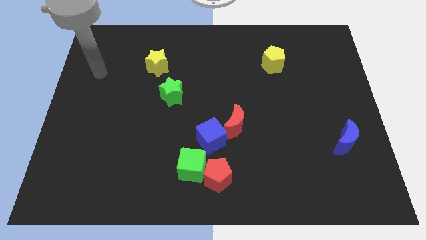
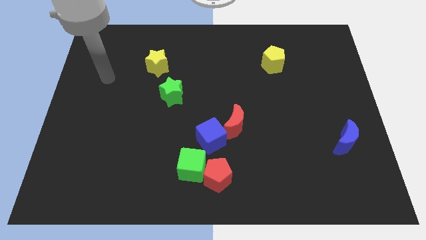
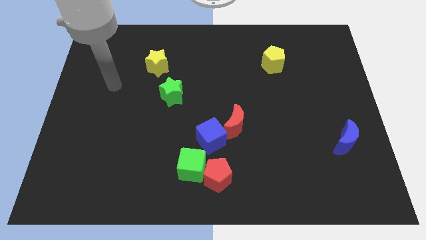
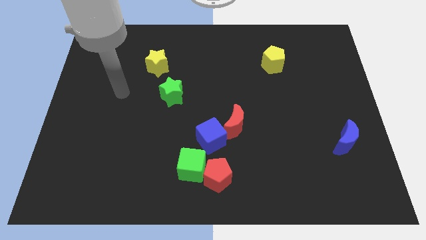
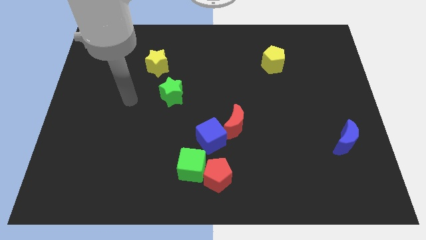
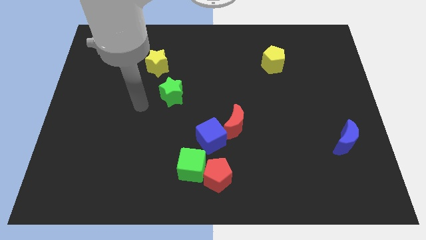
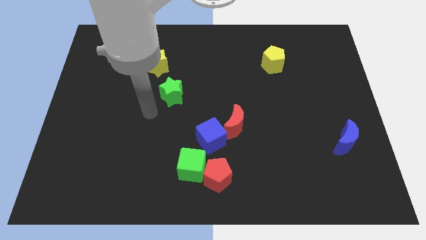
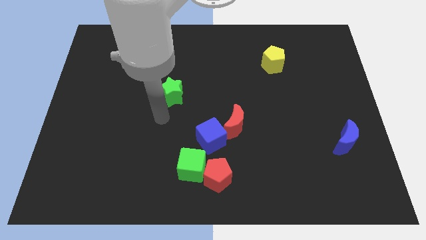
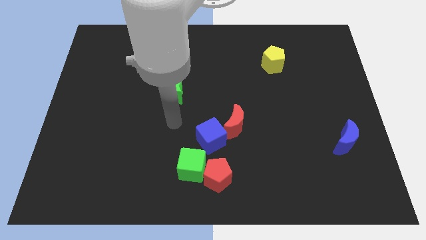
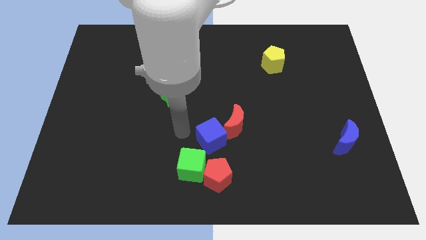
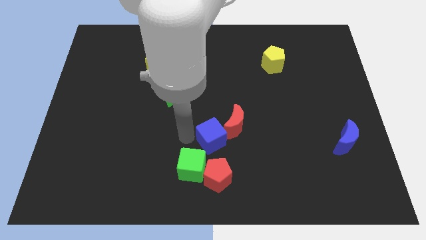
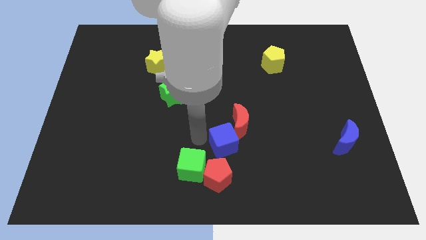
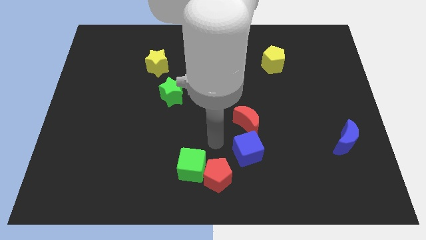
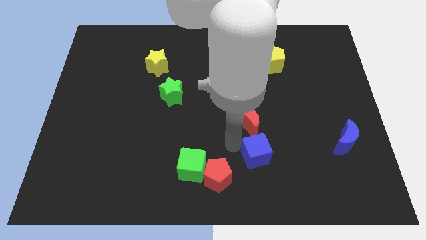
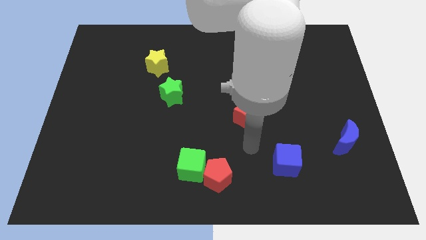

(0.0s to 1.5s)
pull the red moon apart from the blue cube

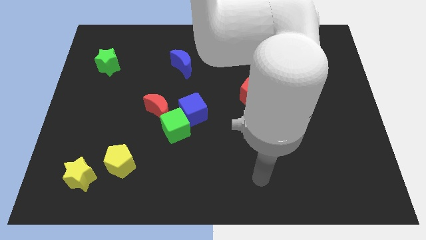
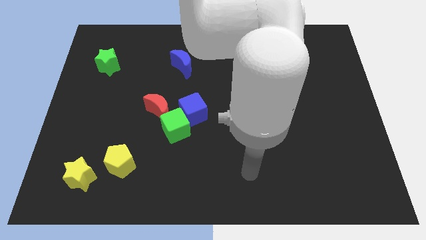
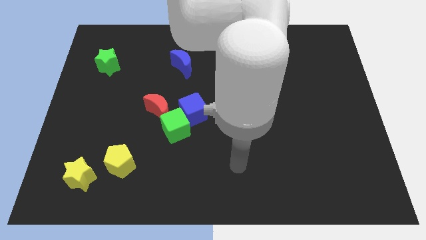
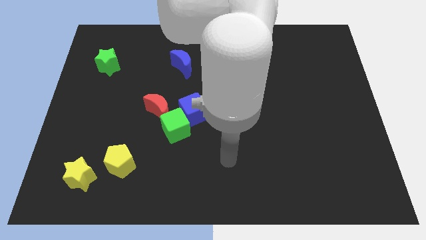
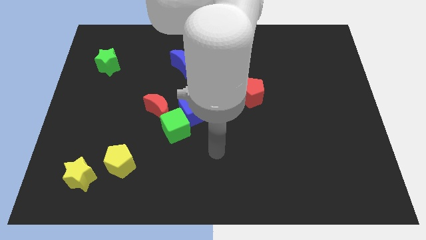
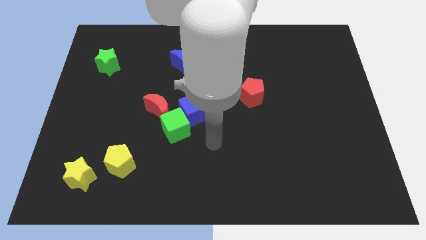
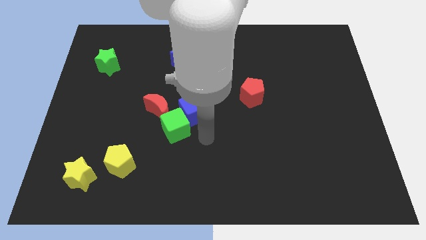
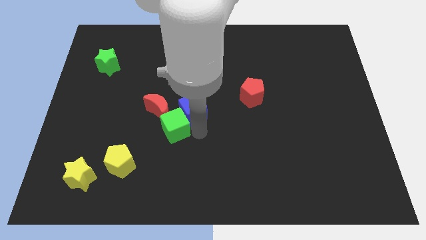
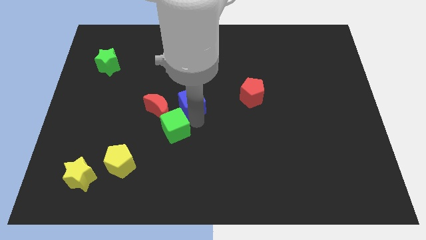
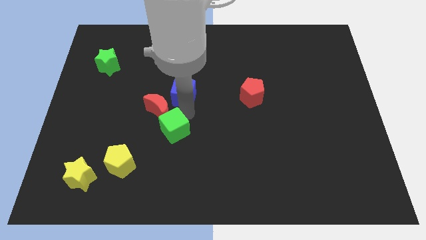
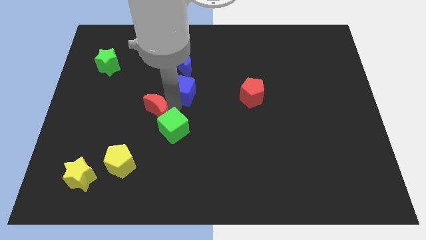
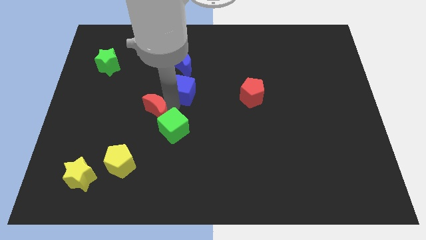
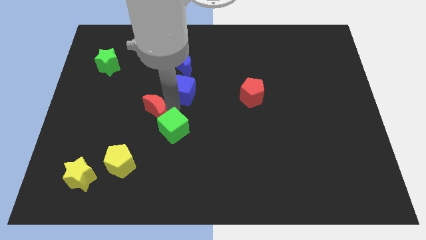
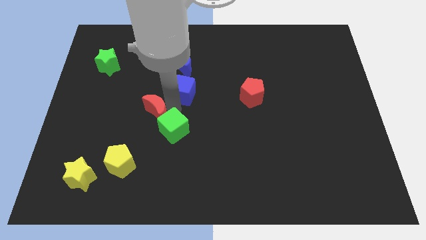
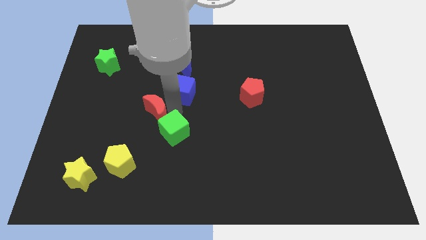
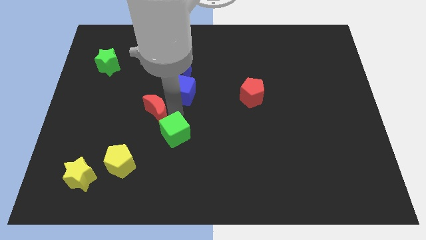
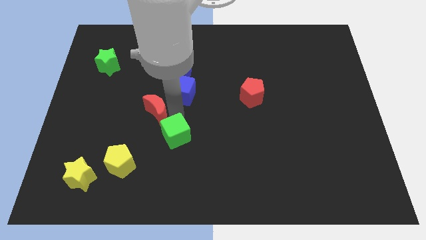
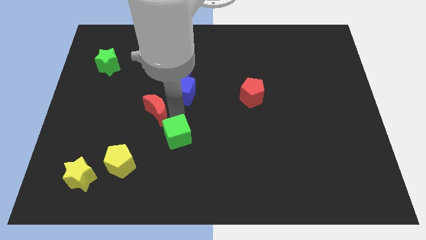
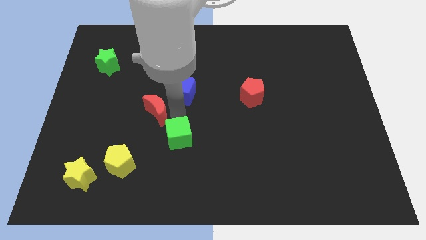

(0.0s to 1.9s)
separate the green cube from the blue cube and red moon

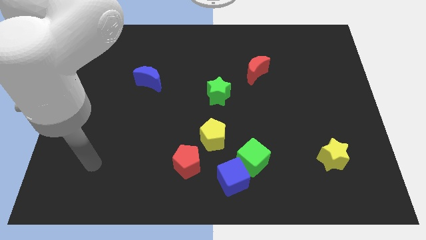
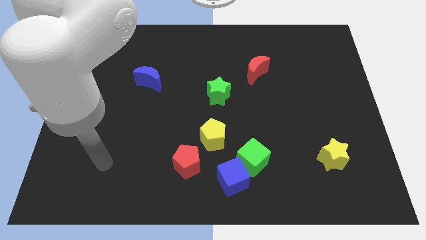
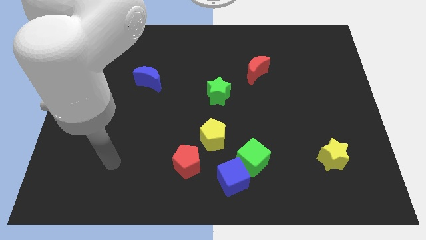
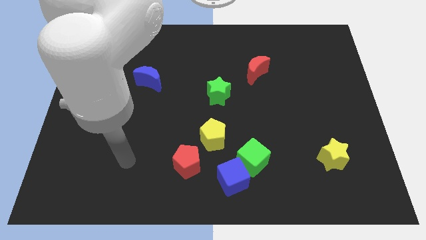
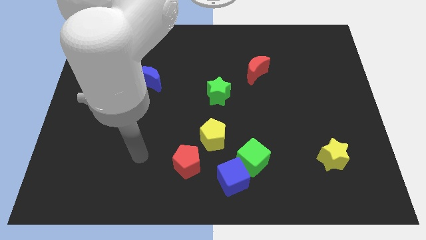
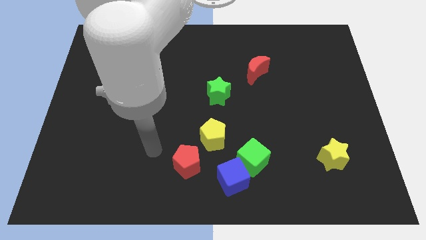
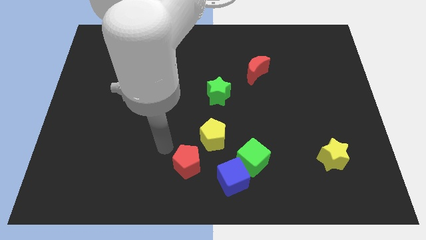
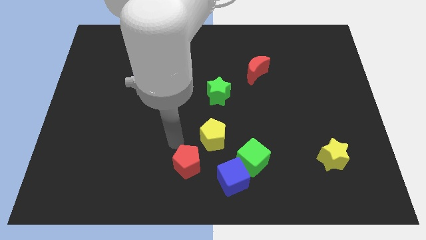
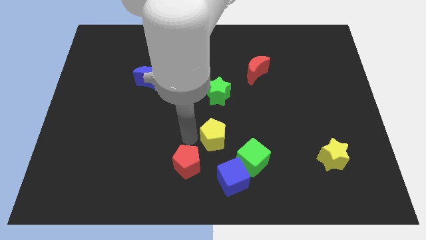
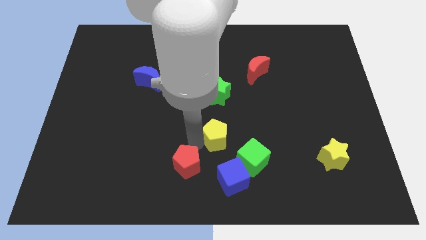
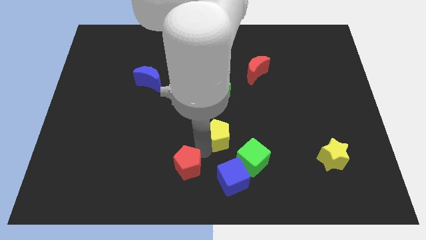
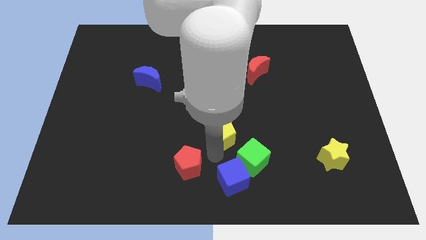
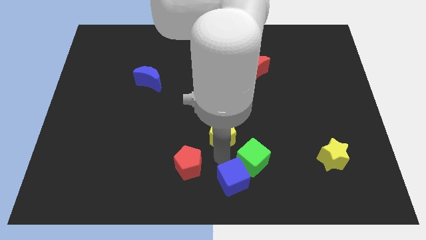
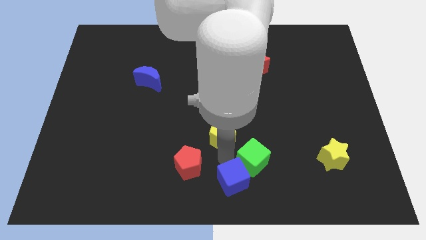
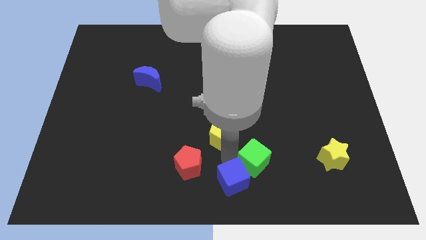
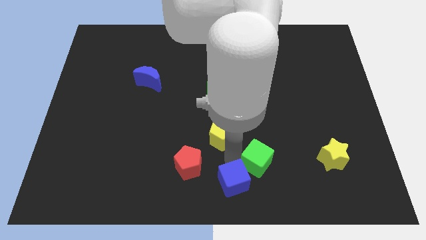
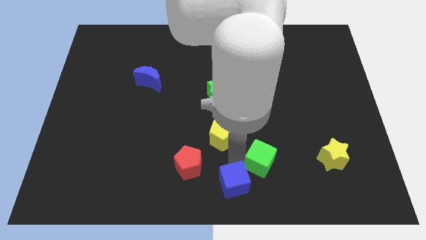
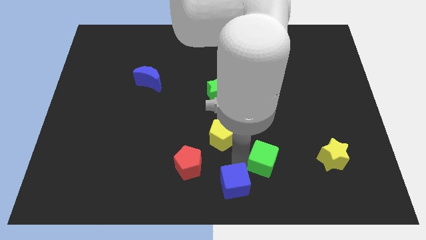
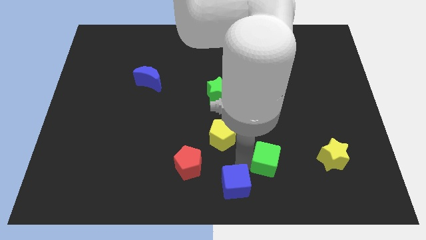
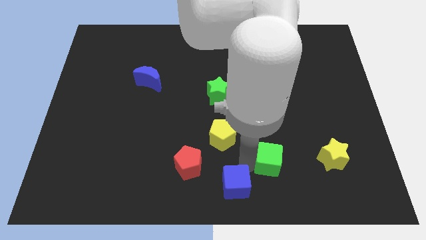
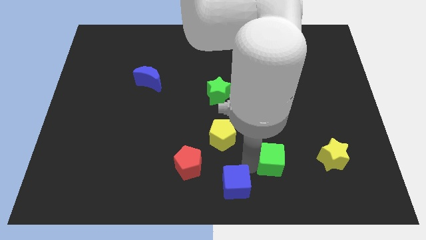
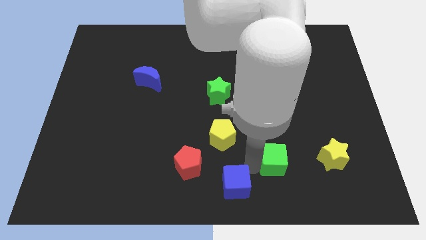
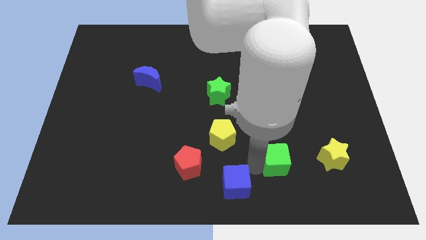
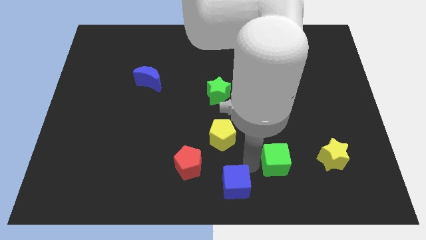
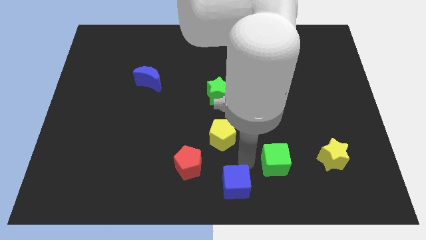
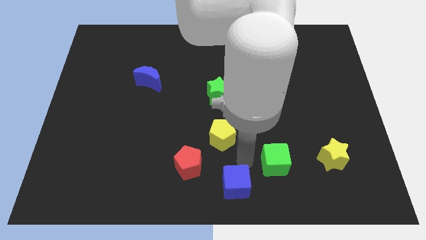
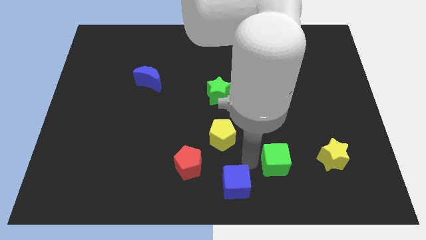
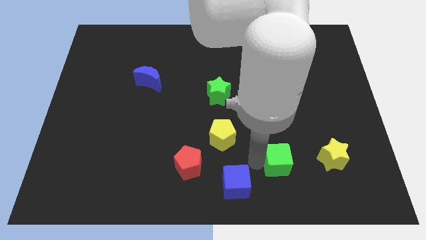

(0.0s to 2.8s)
move the green cube away from the blue cube and yellow pentagon

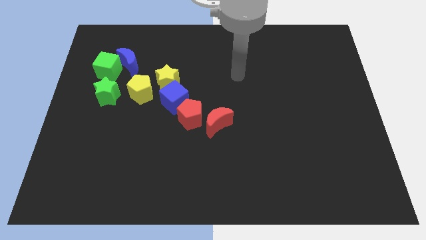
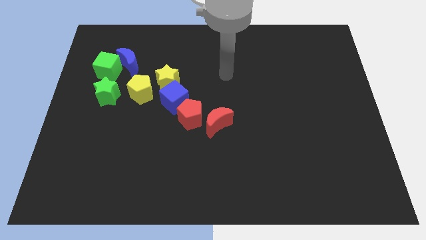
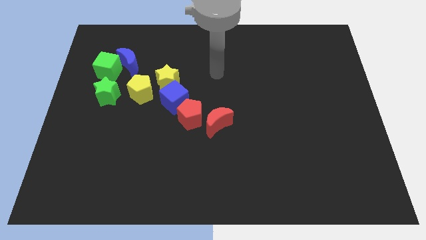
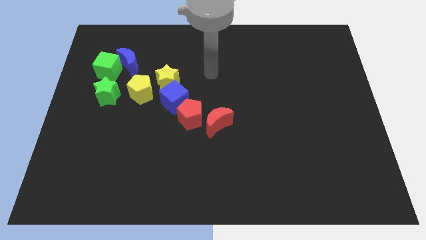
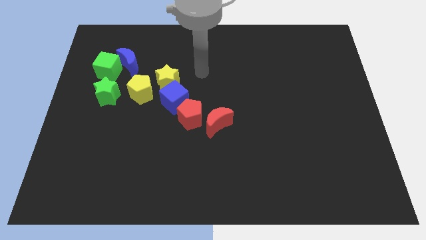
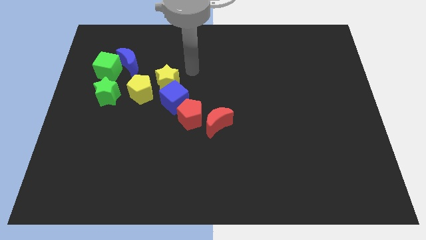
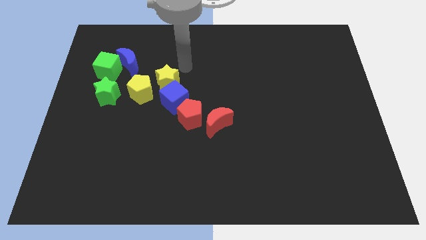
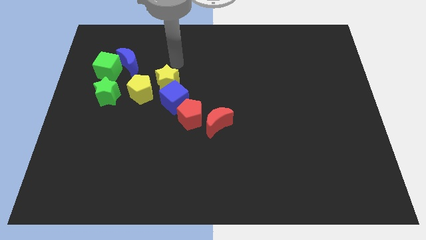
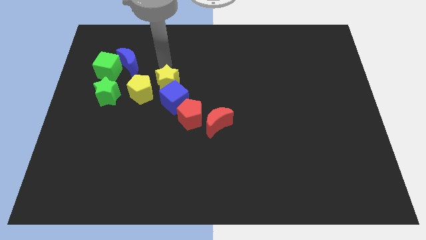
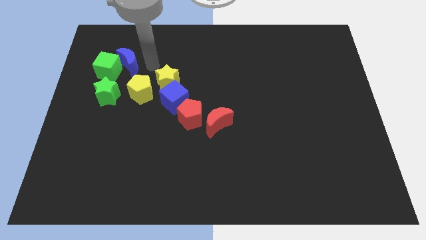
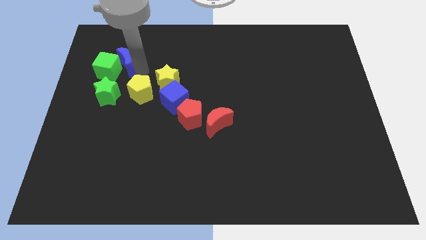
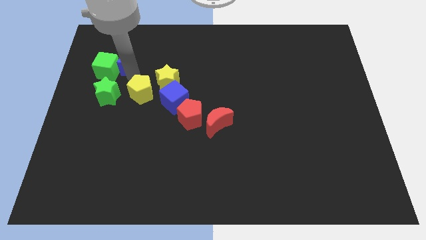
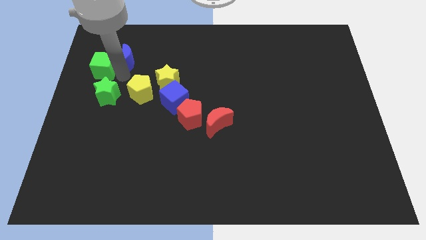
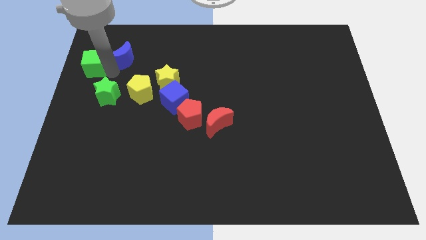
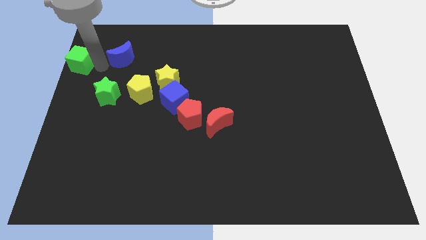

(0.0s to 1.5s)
separate the blue moon from the green cube

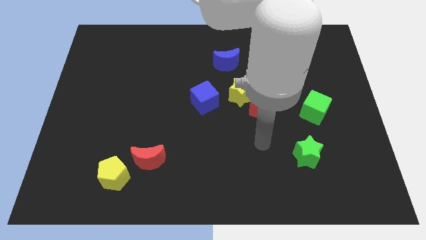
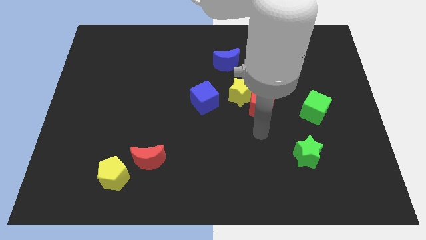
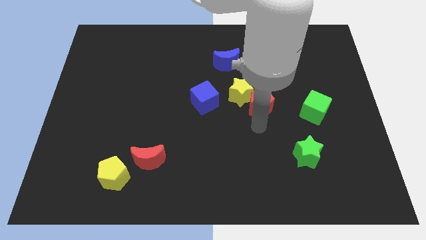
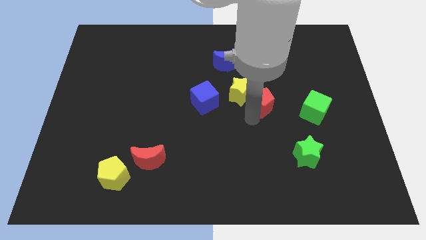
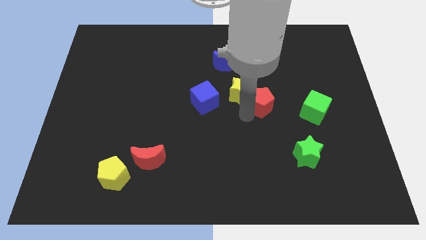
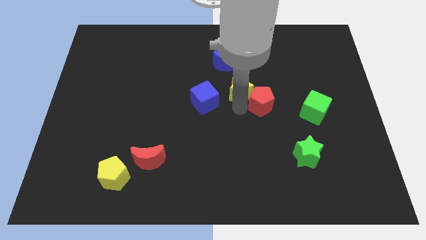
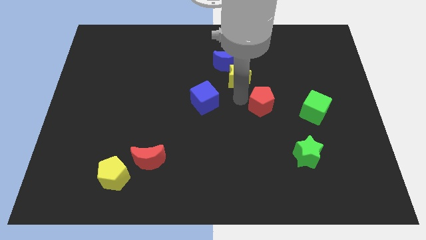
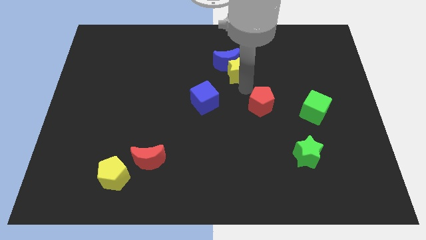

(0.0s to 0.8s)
move the red pentagon away from the yellow star

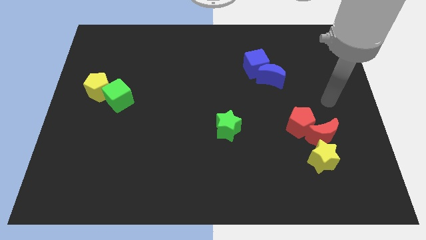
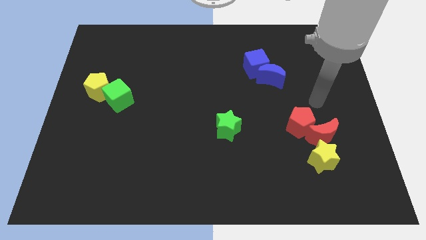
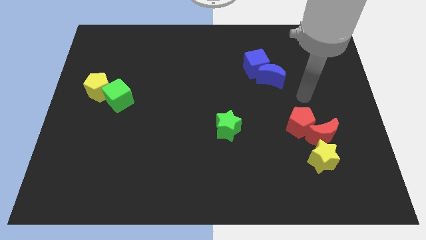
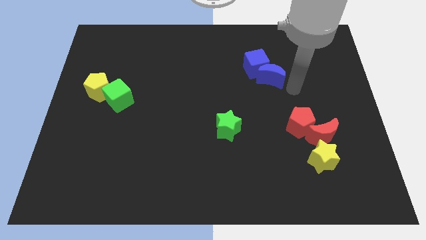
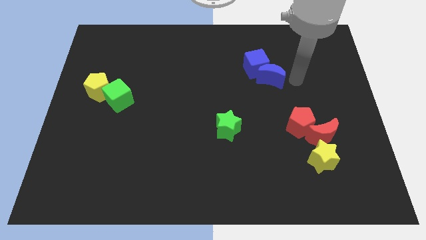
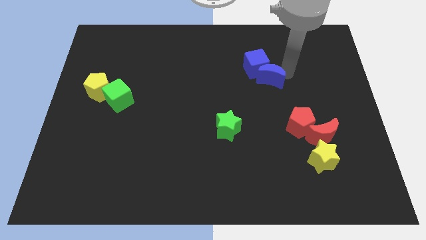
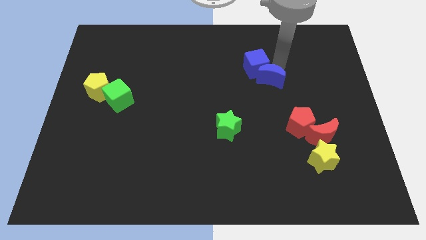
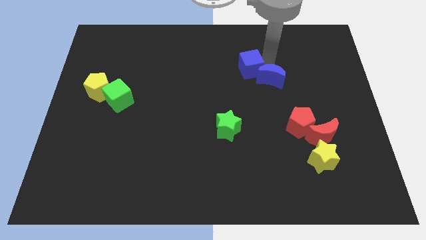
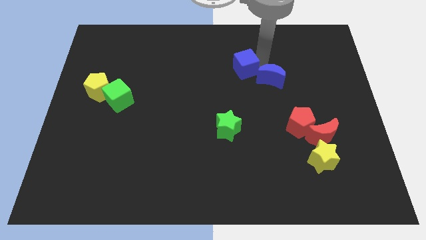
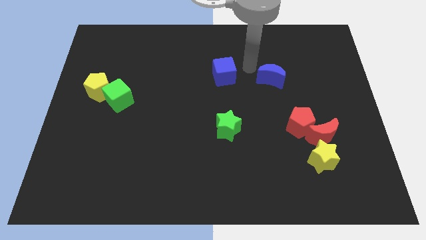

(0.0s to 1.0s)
separate the blue moon from the blue cube
